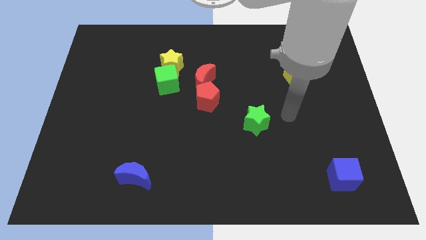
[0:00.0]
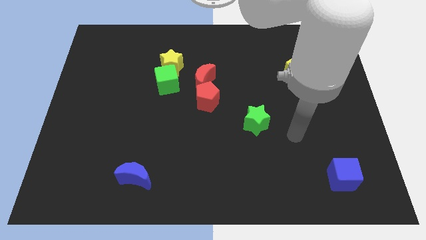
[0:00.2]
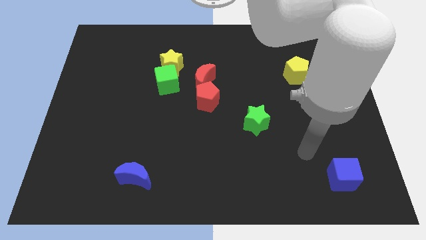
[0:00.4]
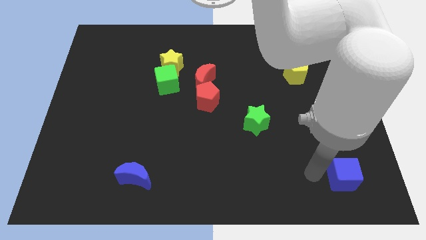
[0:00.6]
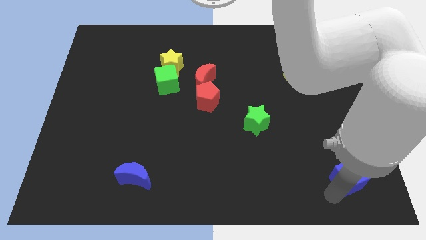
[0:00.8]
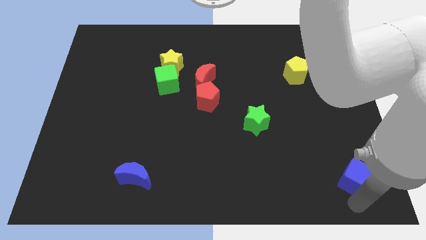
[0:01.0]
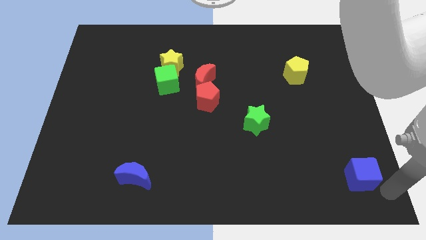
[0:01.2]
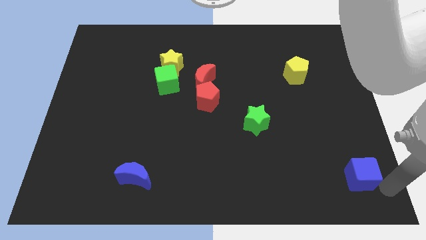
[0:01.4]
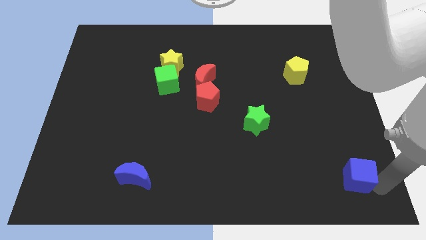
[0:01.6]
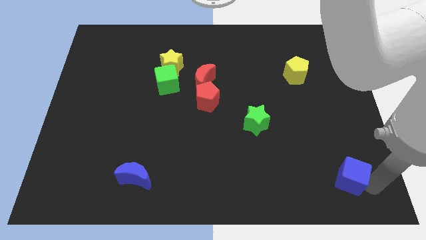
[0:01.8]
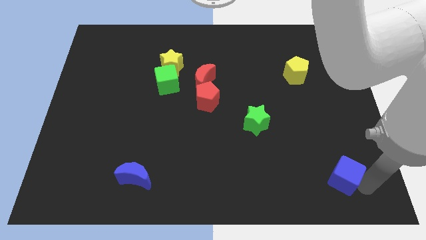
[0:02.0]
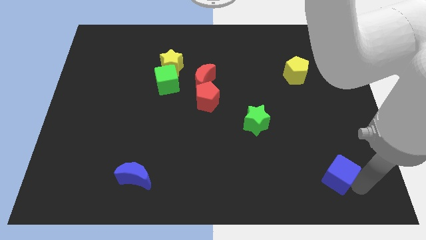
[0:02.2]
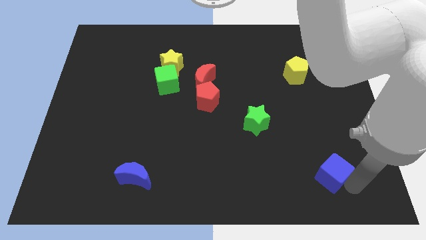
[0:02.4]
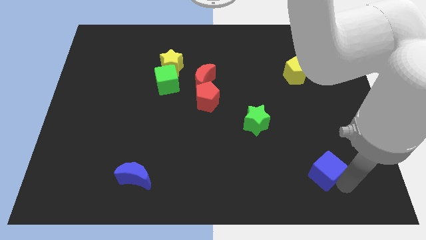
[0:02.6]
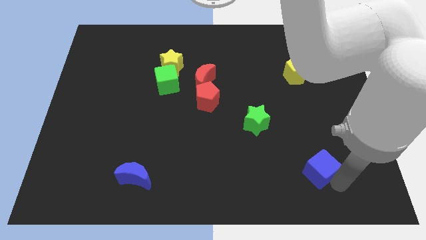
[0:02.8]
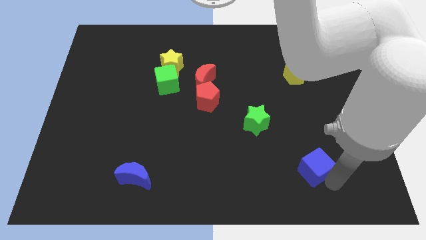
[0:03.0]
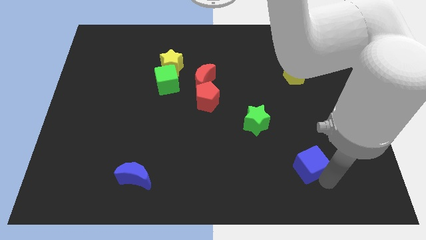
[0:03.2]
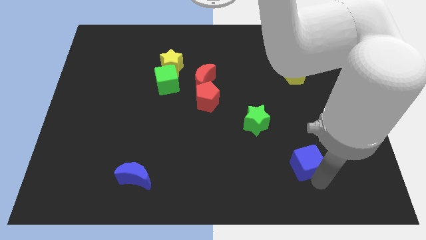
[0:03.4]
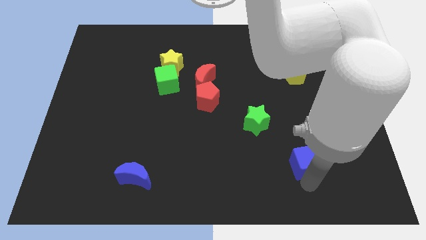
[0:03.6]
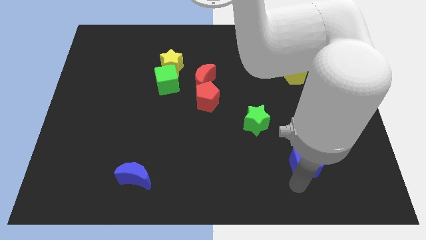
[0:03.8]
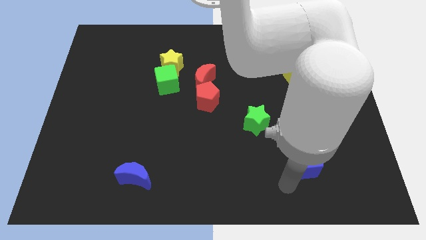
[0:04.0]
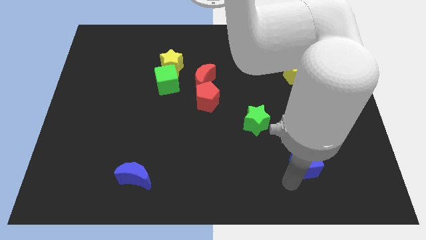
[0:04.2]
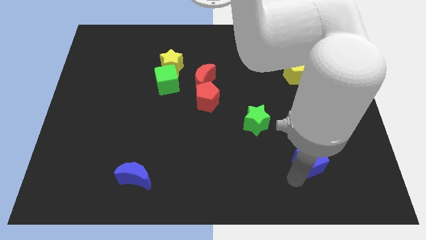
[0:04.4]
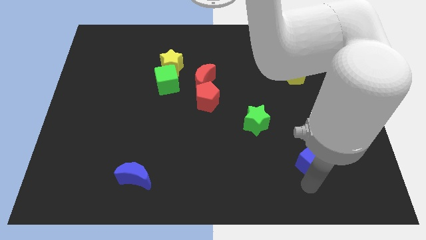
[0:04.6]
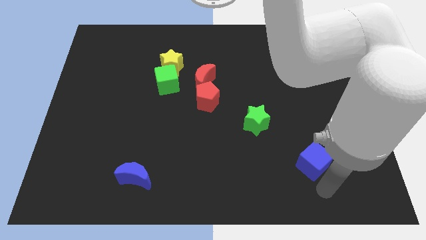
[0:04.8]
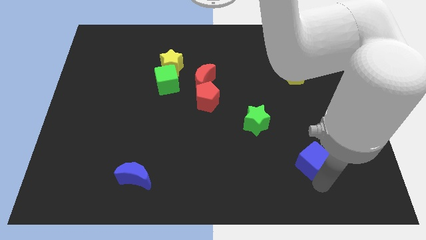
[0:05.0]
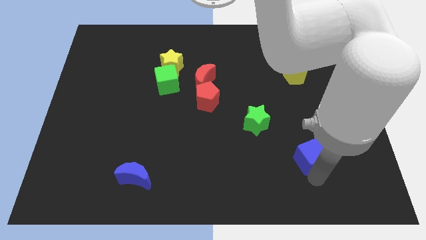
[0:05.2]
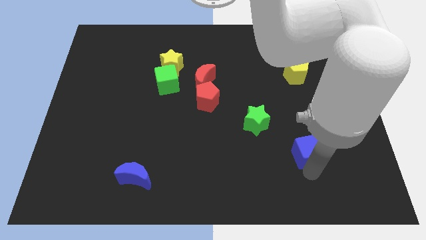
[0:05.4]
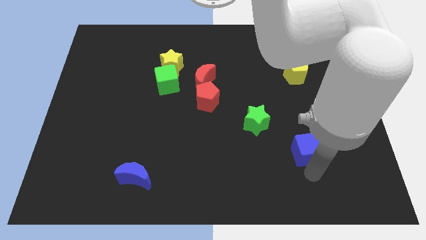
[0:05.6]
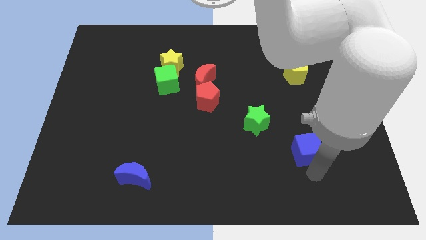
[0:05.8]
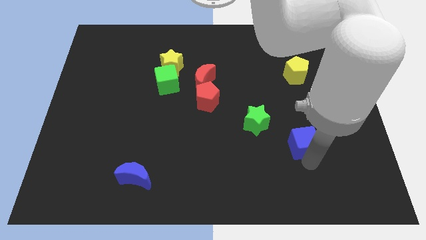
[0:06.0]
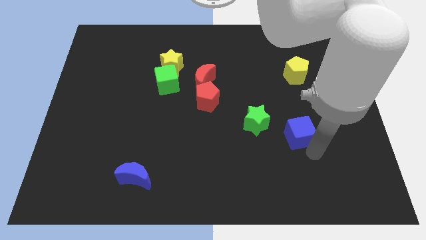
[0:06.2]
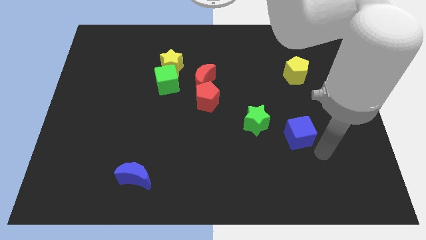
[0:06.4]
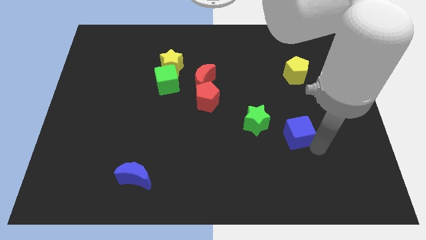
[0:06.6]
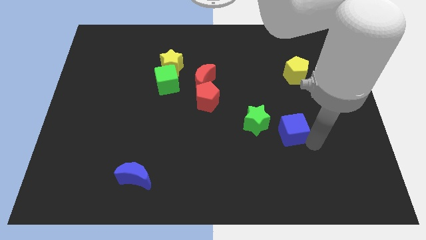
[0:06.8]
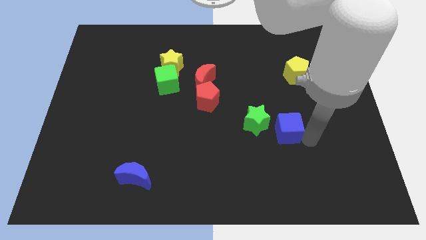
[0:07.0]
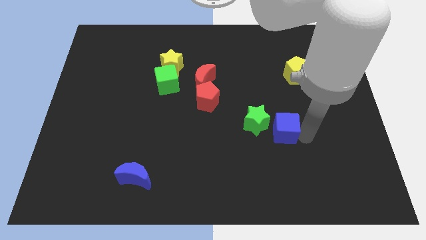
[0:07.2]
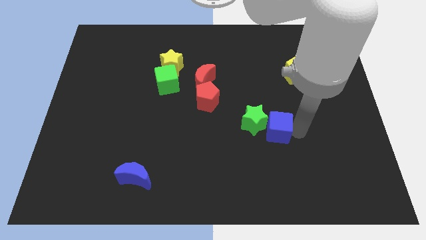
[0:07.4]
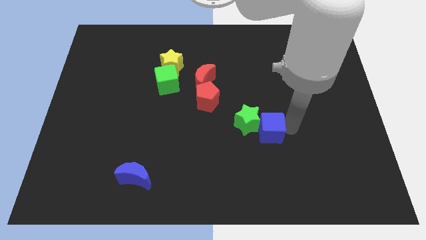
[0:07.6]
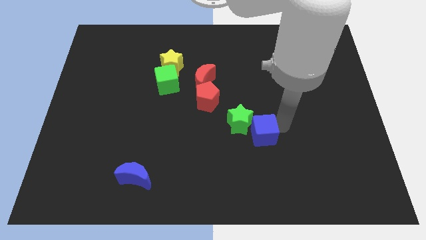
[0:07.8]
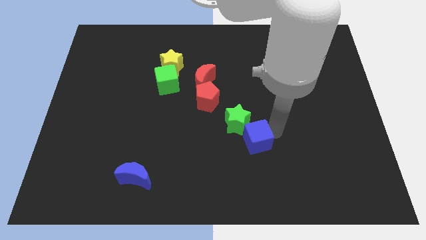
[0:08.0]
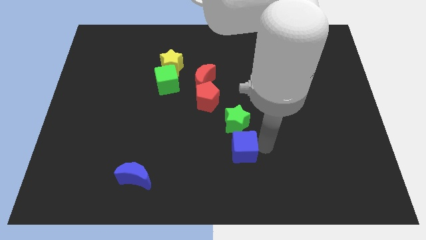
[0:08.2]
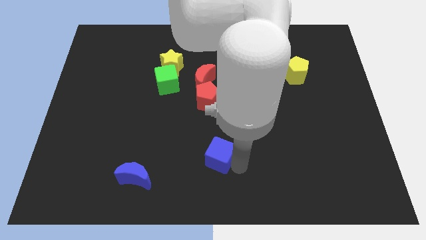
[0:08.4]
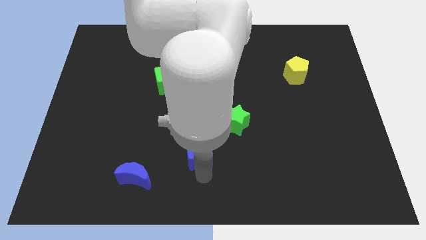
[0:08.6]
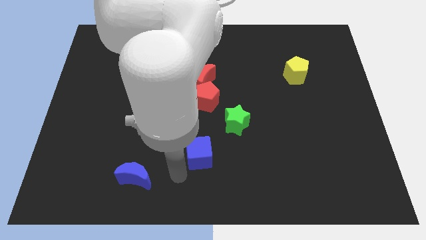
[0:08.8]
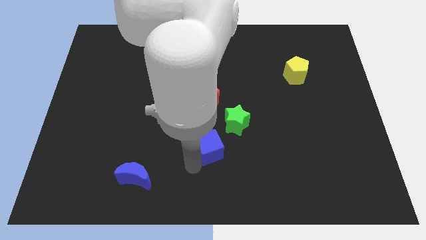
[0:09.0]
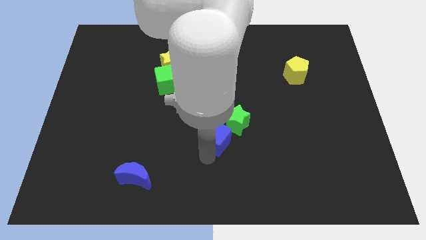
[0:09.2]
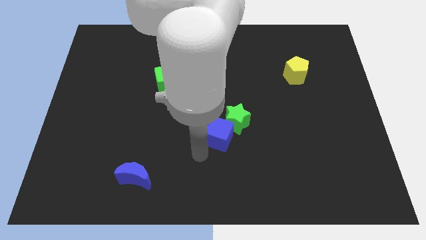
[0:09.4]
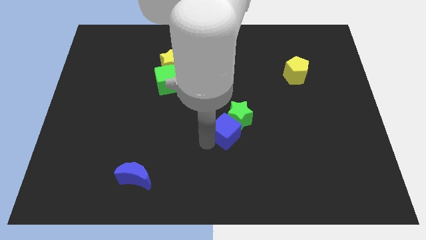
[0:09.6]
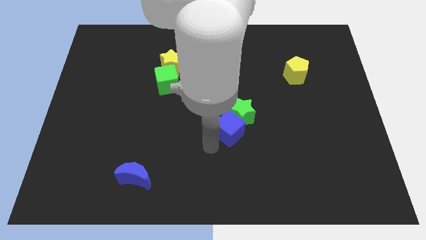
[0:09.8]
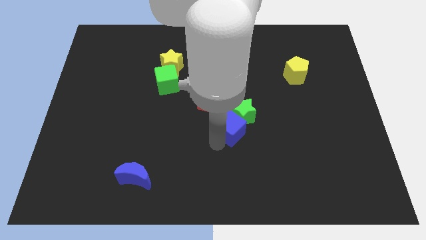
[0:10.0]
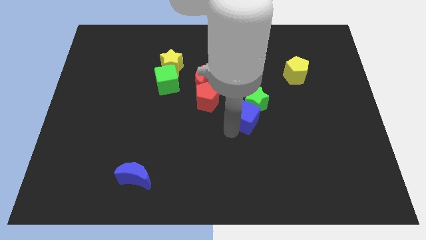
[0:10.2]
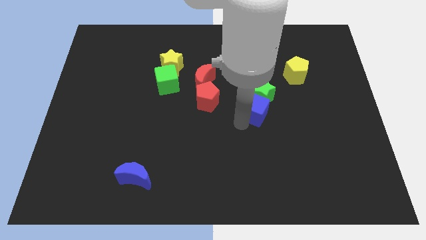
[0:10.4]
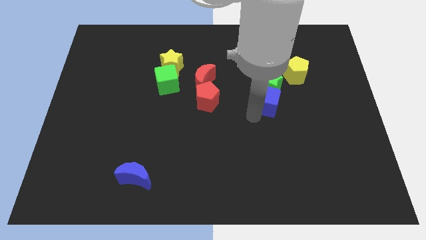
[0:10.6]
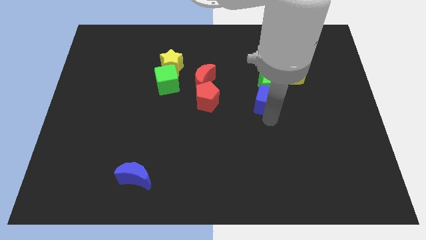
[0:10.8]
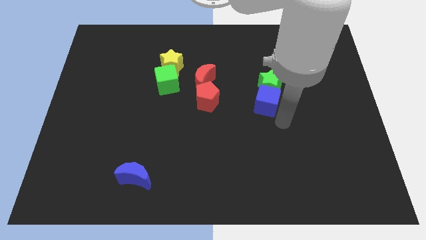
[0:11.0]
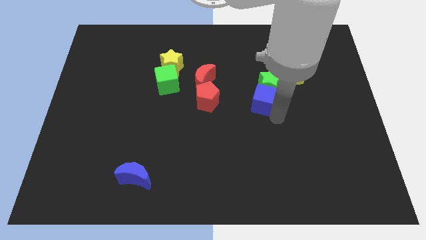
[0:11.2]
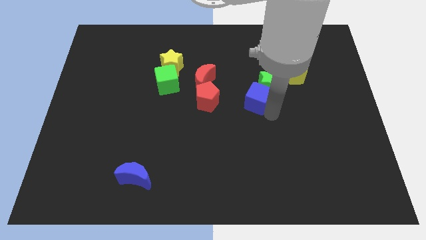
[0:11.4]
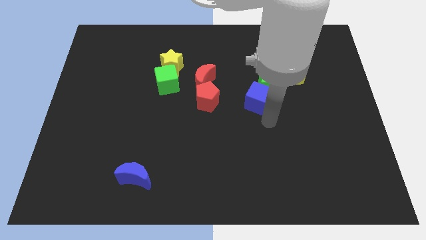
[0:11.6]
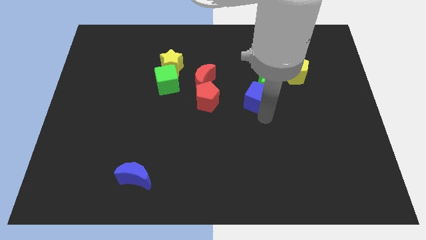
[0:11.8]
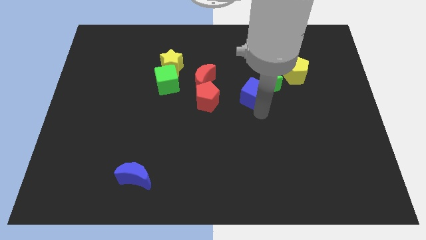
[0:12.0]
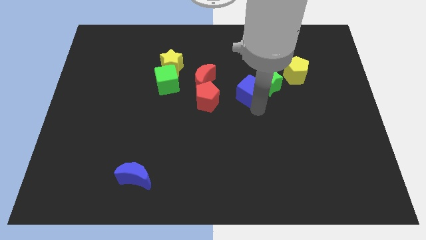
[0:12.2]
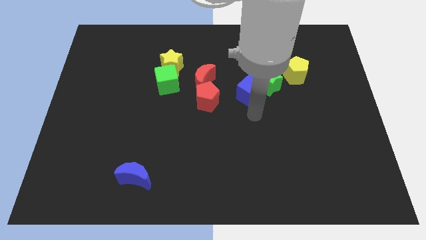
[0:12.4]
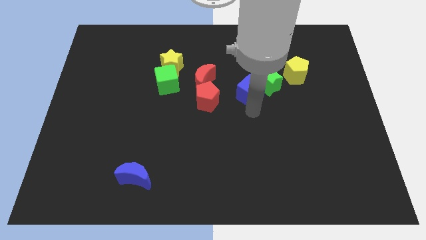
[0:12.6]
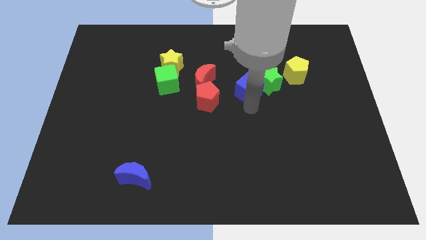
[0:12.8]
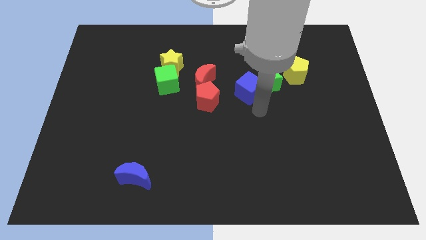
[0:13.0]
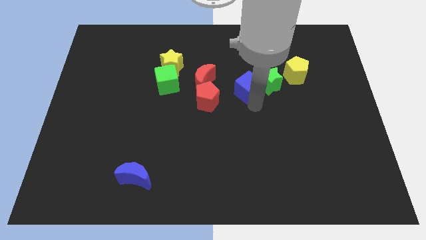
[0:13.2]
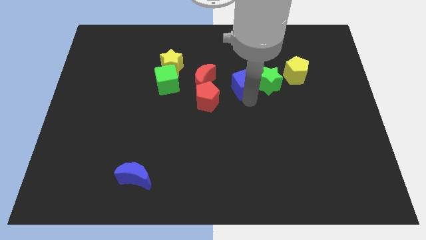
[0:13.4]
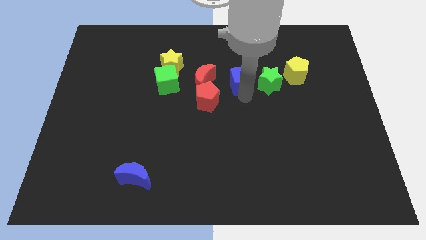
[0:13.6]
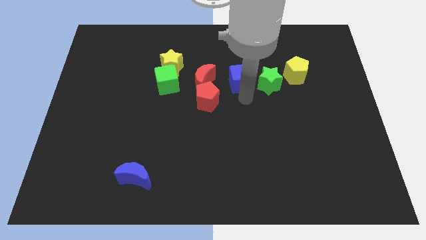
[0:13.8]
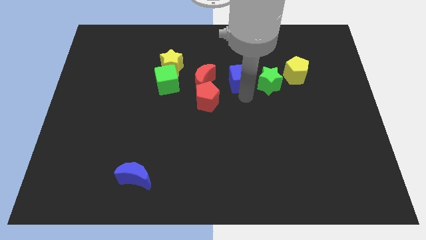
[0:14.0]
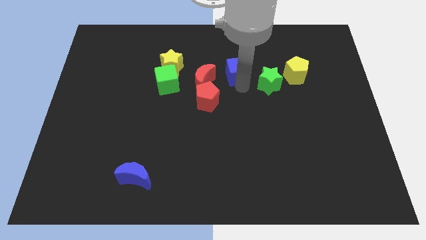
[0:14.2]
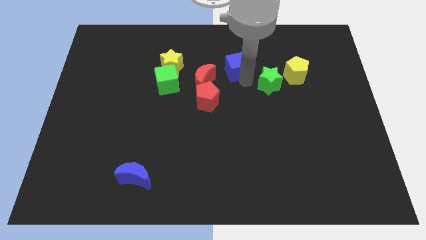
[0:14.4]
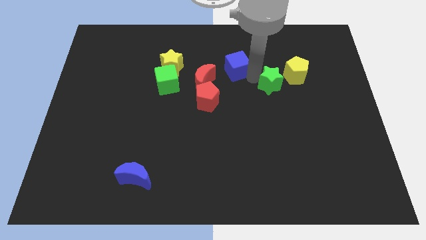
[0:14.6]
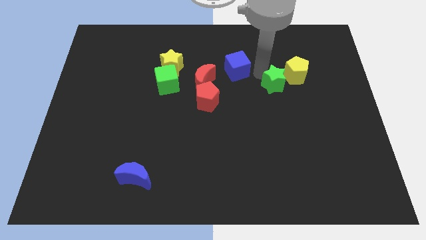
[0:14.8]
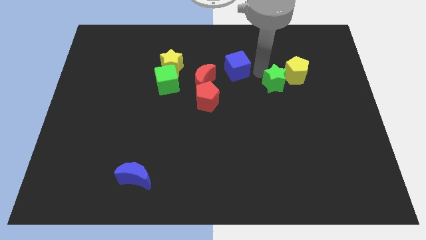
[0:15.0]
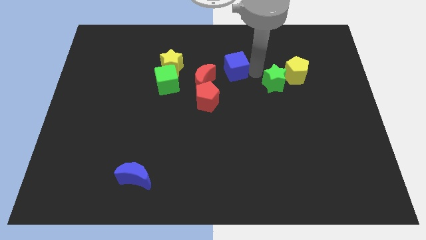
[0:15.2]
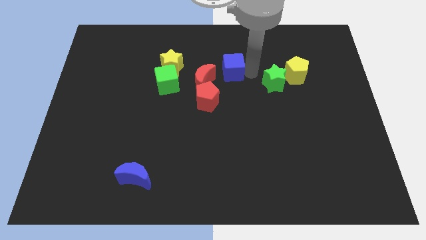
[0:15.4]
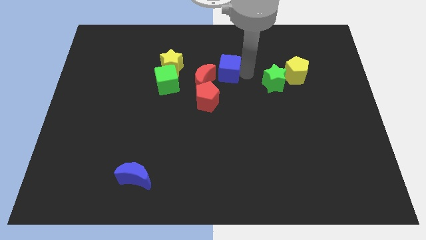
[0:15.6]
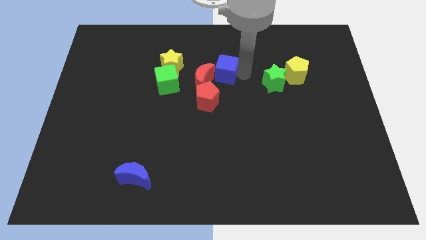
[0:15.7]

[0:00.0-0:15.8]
move the blue cube to the top of the red pentagon

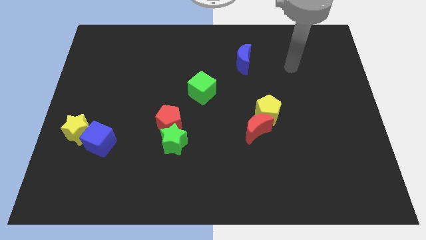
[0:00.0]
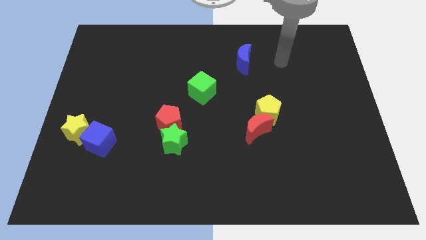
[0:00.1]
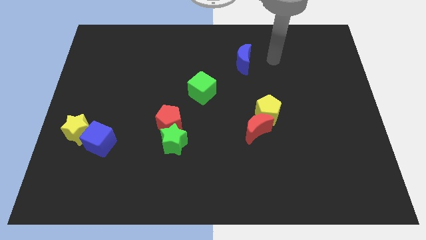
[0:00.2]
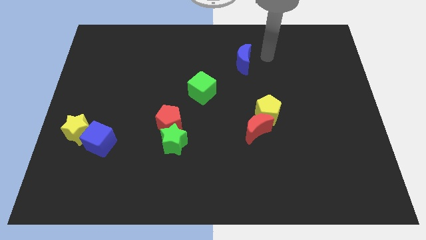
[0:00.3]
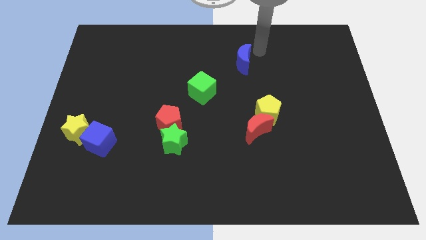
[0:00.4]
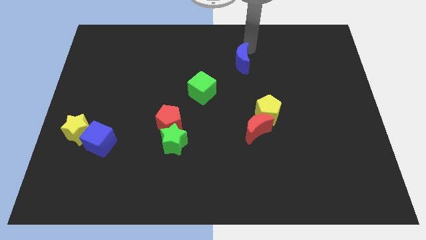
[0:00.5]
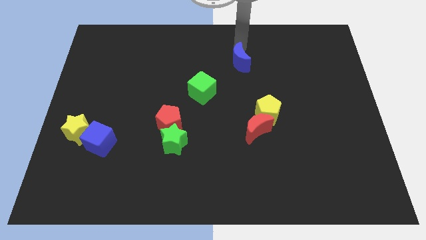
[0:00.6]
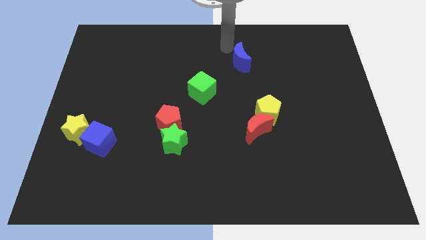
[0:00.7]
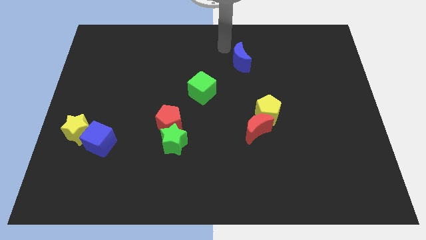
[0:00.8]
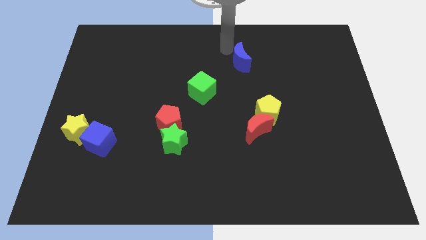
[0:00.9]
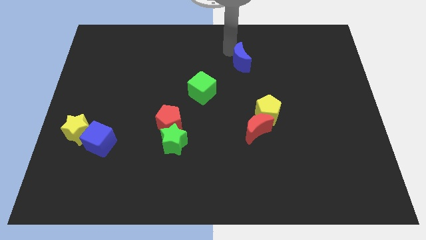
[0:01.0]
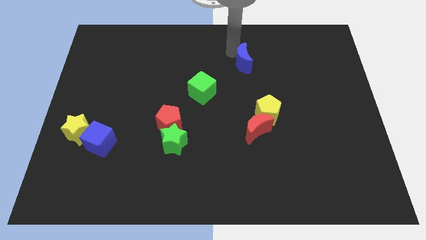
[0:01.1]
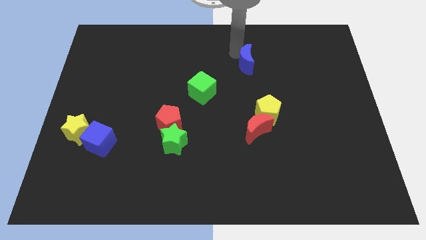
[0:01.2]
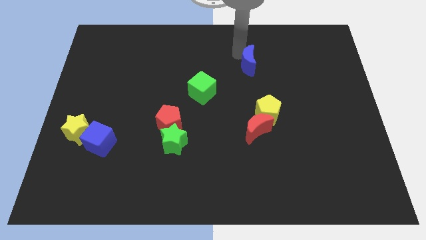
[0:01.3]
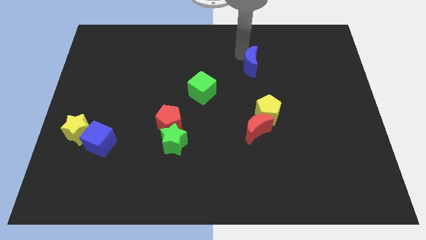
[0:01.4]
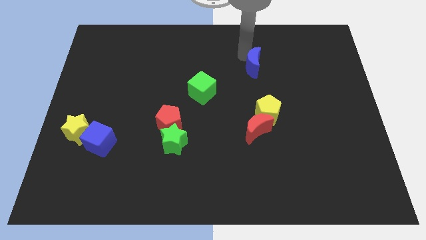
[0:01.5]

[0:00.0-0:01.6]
put the blue moon to the top of the yellow pentagon
